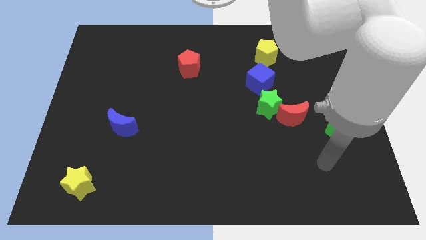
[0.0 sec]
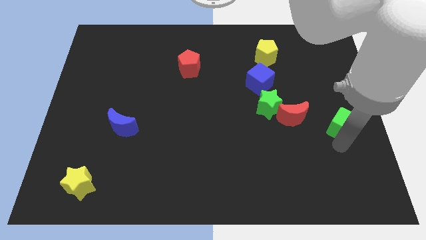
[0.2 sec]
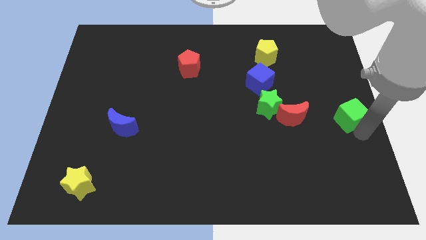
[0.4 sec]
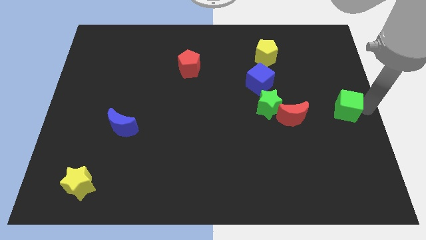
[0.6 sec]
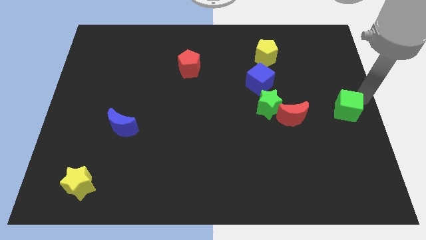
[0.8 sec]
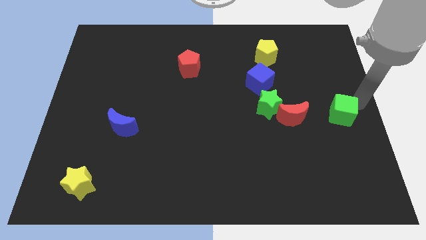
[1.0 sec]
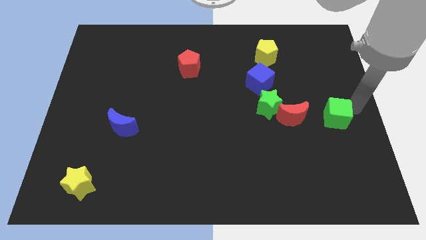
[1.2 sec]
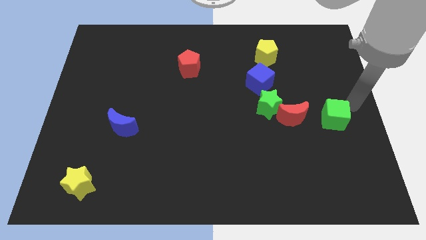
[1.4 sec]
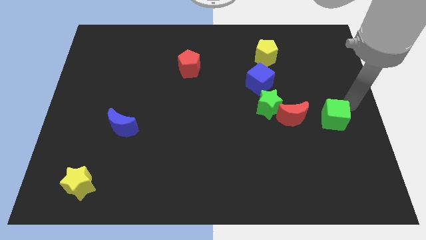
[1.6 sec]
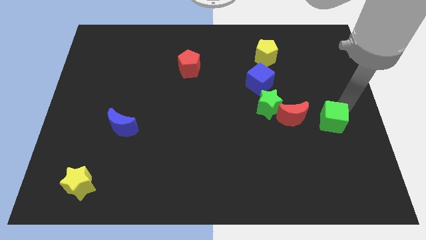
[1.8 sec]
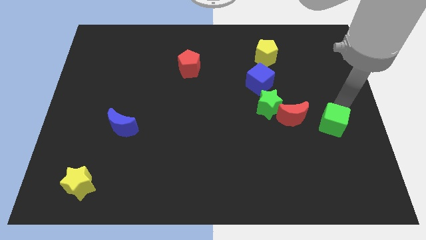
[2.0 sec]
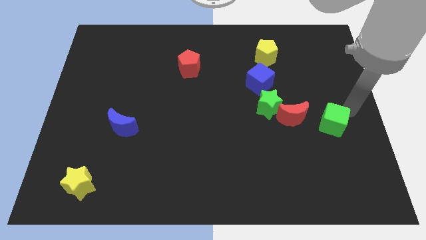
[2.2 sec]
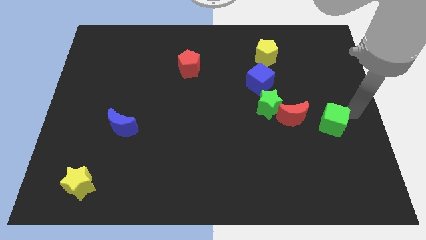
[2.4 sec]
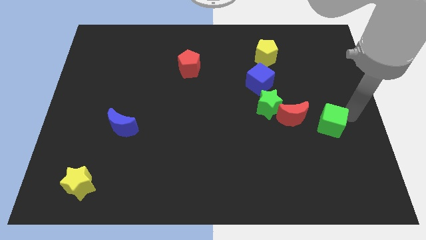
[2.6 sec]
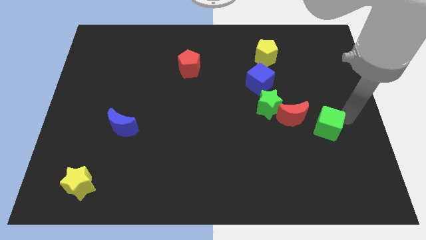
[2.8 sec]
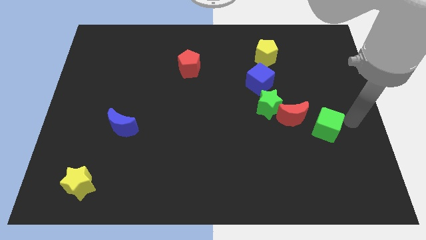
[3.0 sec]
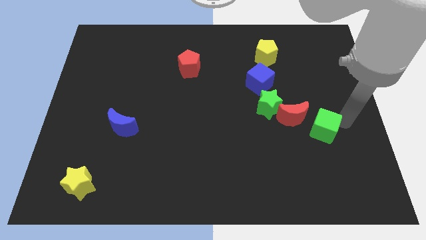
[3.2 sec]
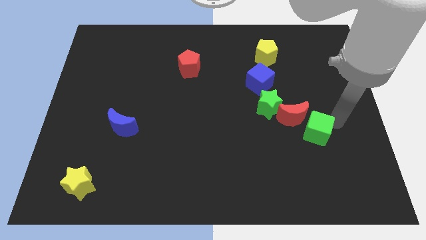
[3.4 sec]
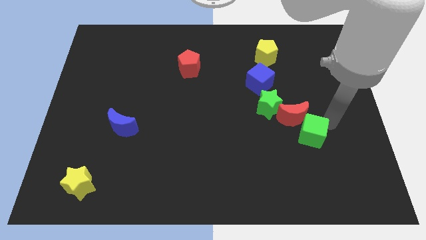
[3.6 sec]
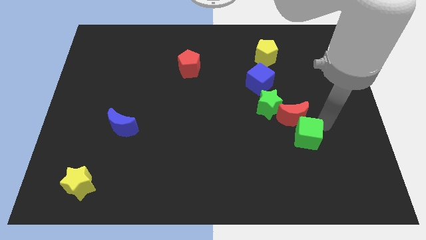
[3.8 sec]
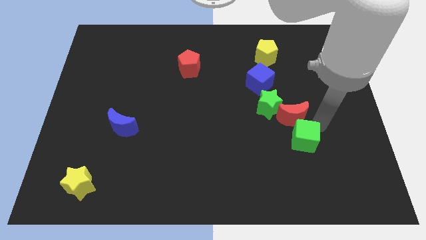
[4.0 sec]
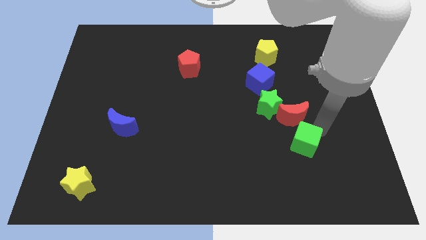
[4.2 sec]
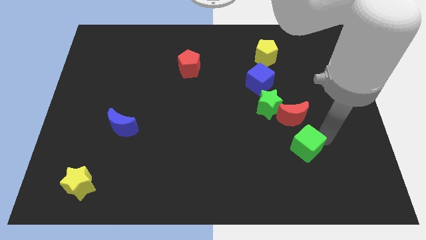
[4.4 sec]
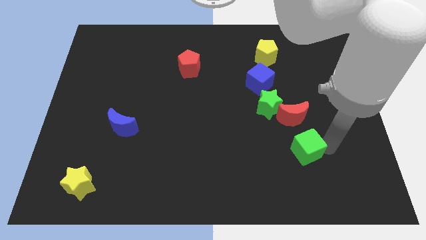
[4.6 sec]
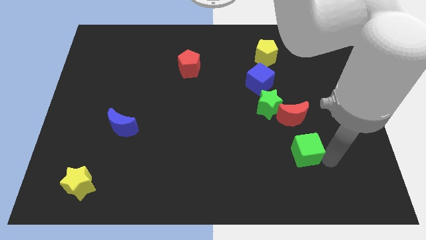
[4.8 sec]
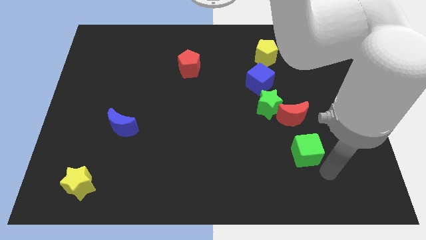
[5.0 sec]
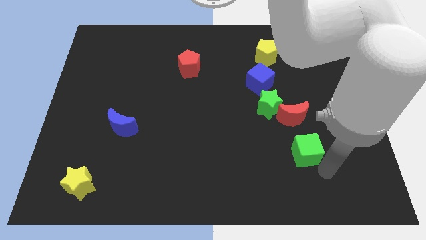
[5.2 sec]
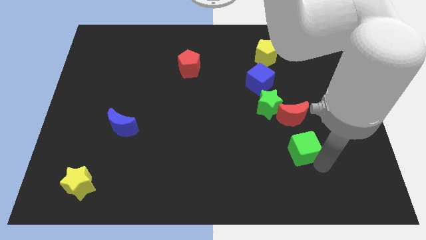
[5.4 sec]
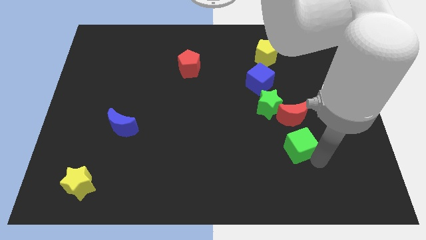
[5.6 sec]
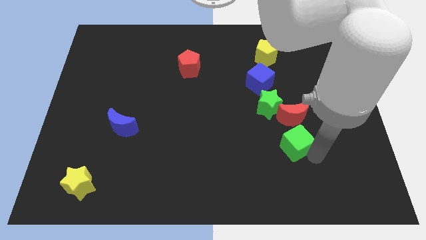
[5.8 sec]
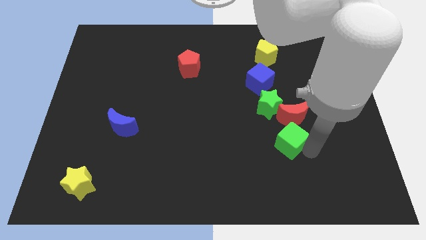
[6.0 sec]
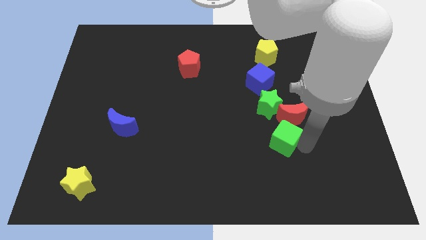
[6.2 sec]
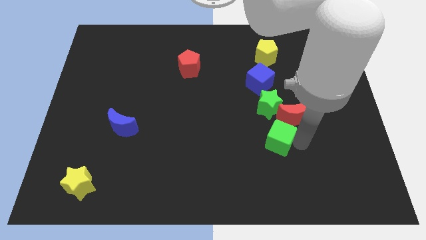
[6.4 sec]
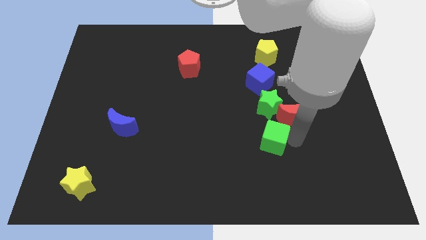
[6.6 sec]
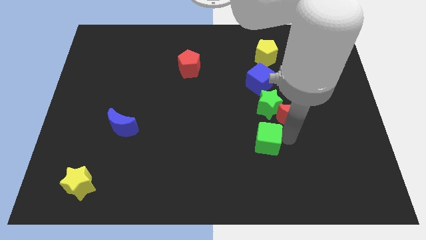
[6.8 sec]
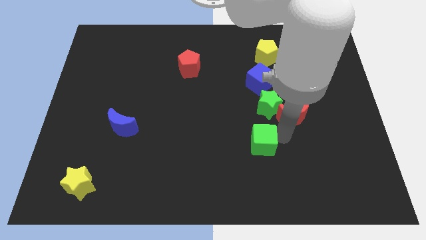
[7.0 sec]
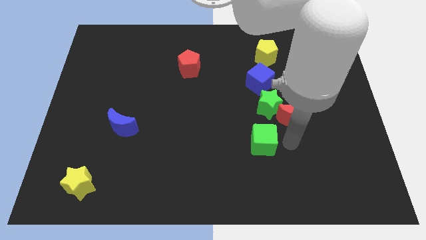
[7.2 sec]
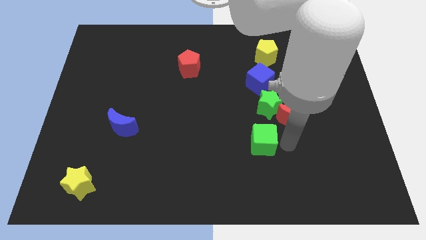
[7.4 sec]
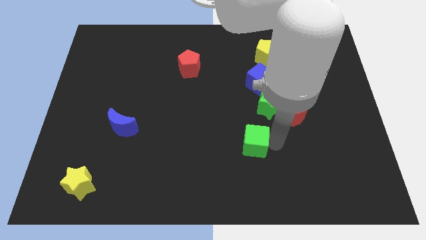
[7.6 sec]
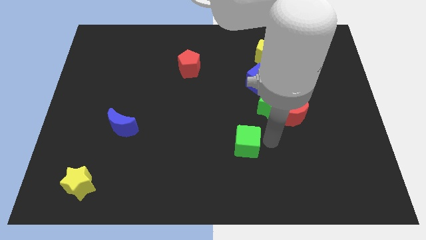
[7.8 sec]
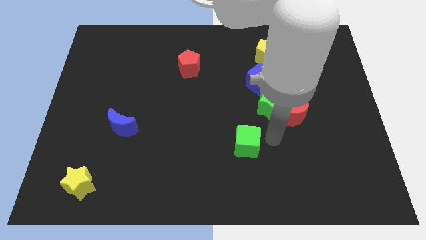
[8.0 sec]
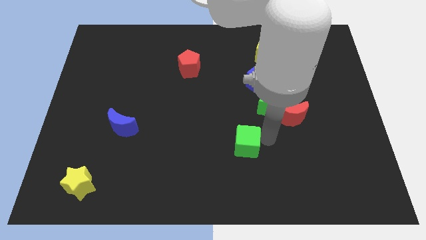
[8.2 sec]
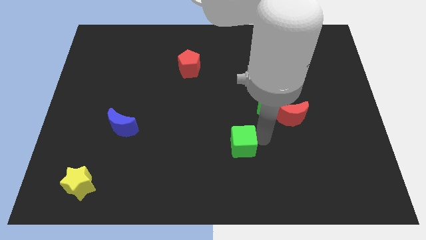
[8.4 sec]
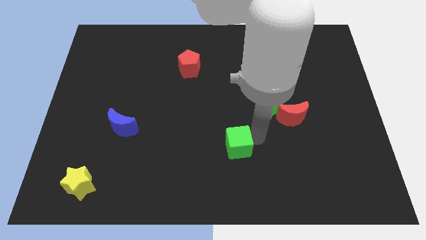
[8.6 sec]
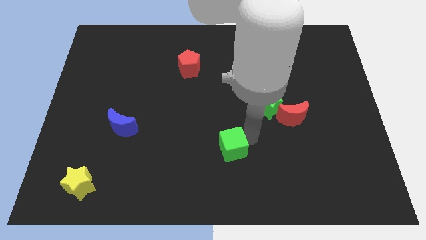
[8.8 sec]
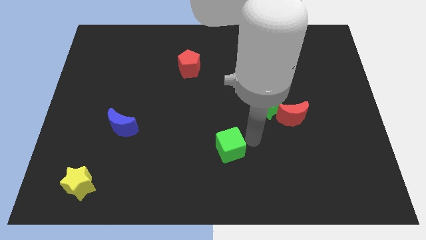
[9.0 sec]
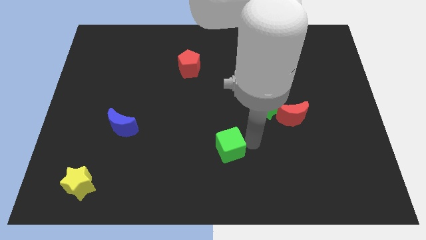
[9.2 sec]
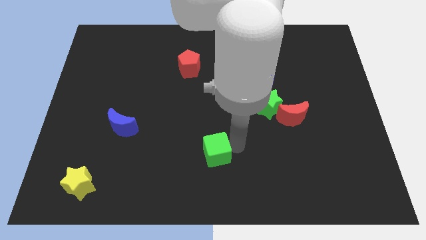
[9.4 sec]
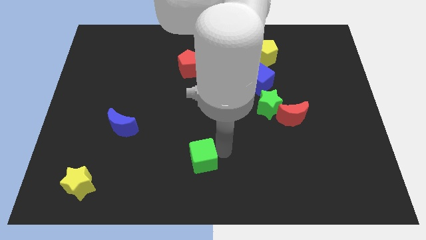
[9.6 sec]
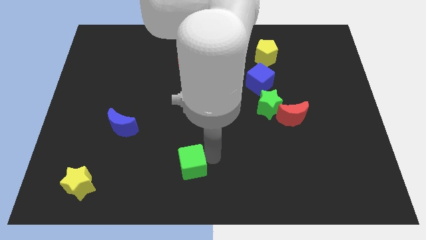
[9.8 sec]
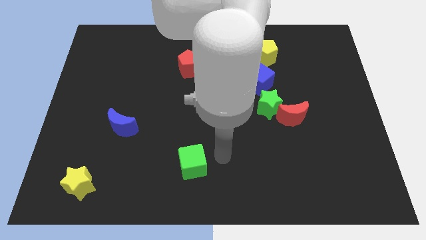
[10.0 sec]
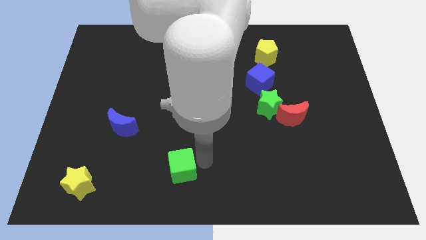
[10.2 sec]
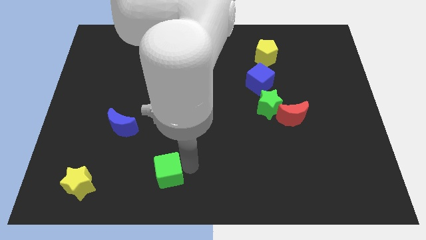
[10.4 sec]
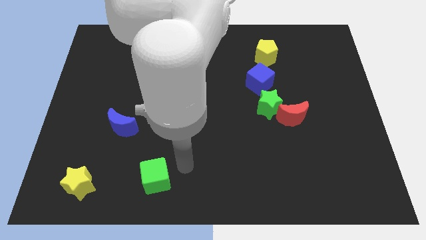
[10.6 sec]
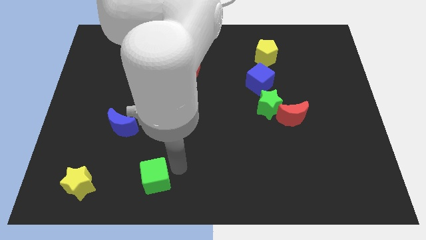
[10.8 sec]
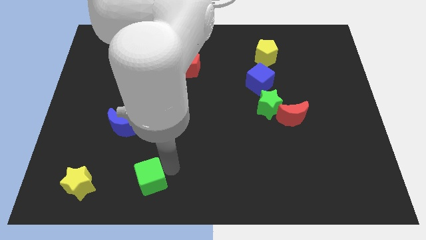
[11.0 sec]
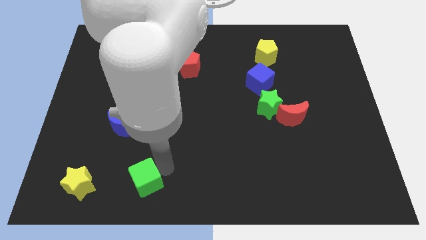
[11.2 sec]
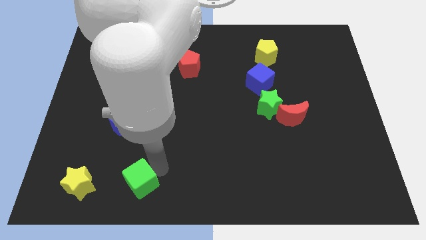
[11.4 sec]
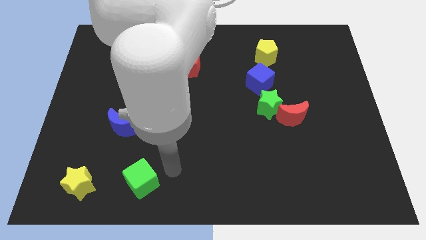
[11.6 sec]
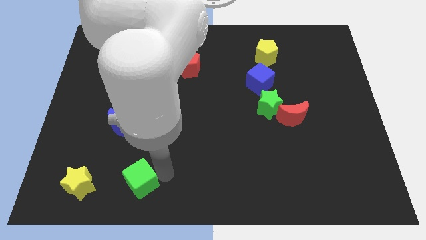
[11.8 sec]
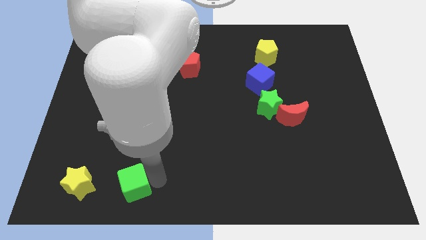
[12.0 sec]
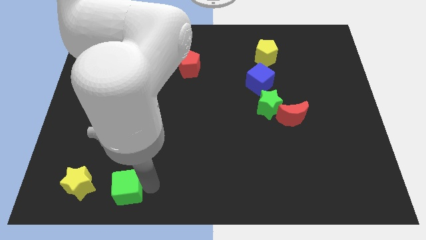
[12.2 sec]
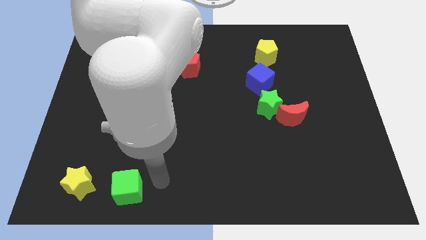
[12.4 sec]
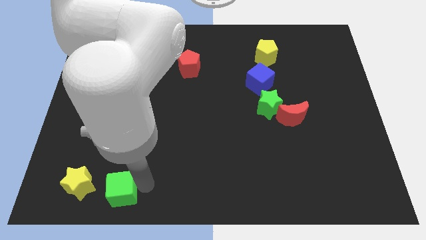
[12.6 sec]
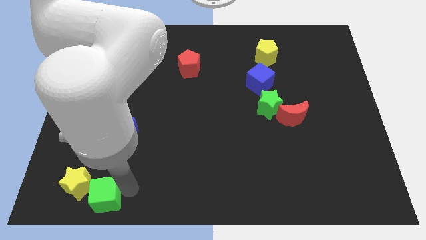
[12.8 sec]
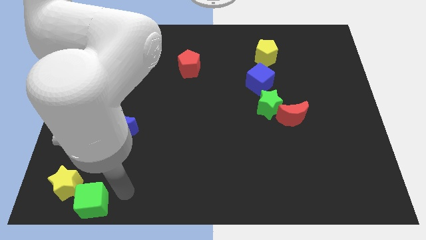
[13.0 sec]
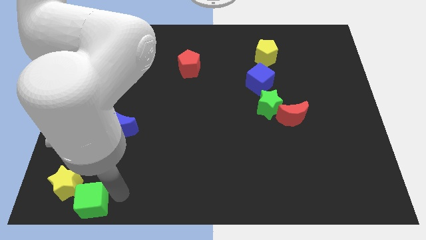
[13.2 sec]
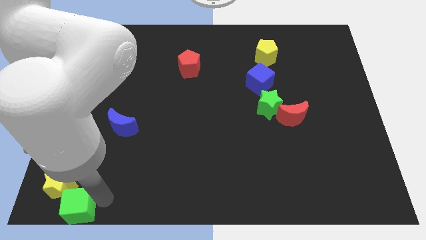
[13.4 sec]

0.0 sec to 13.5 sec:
put the green cube to the bottom left

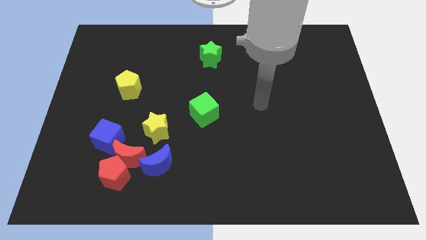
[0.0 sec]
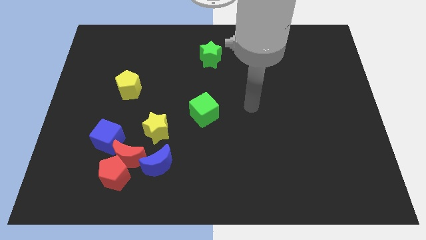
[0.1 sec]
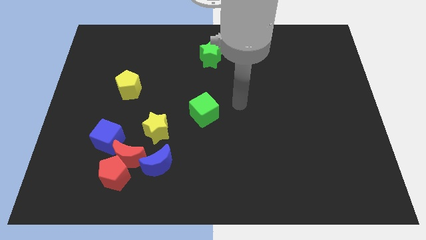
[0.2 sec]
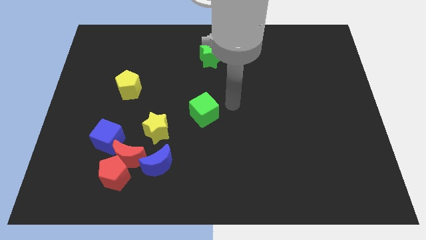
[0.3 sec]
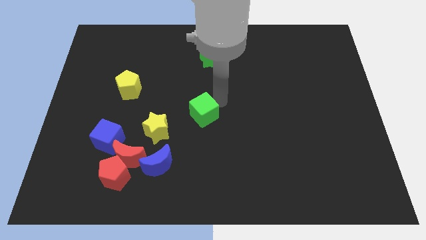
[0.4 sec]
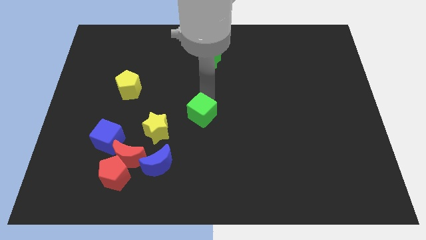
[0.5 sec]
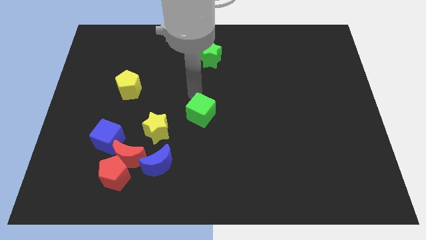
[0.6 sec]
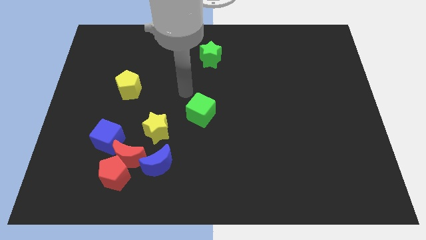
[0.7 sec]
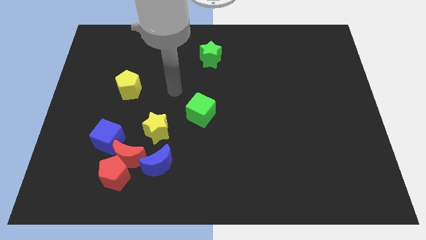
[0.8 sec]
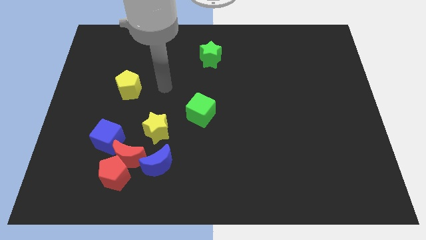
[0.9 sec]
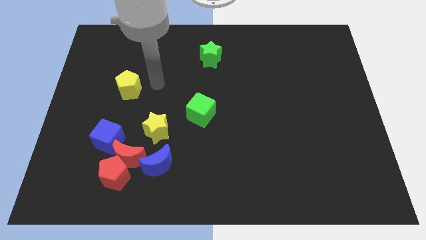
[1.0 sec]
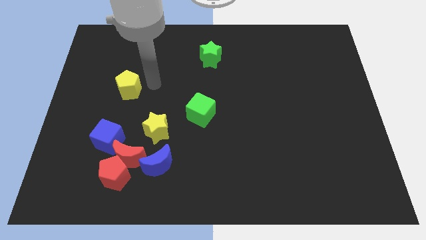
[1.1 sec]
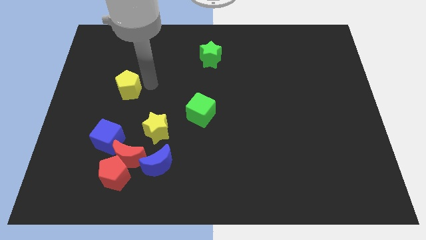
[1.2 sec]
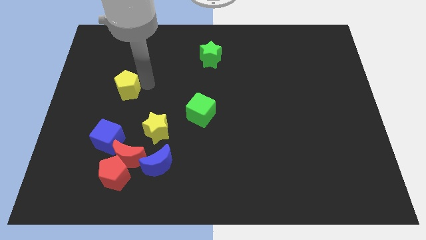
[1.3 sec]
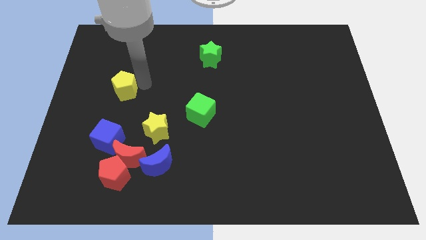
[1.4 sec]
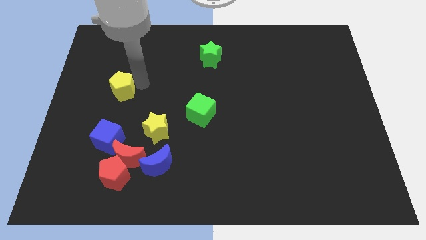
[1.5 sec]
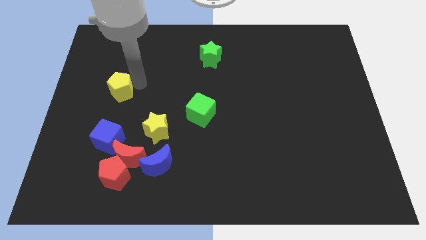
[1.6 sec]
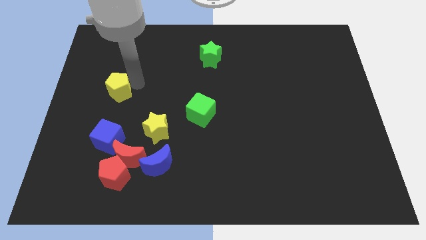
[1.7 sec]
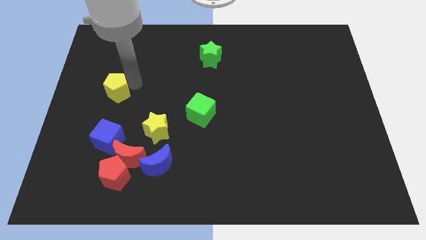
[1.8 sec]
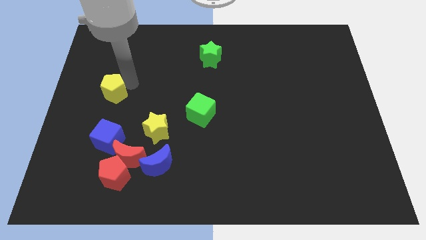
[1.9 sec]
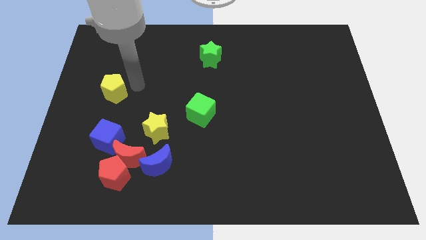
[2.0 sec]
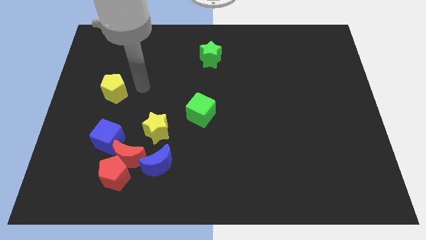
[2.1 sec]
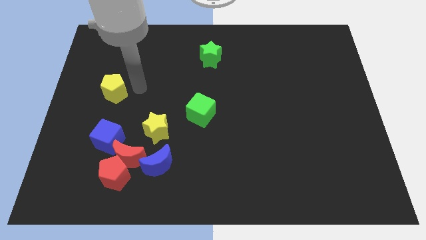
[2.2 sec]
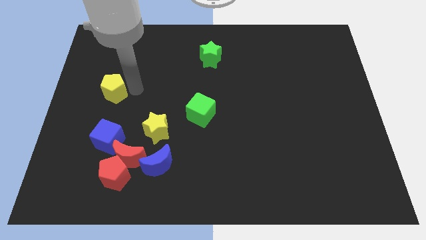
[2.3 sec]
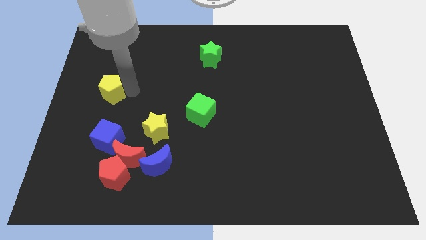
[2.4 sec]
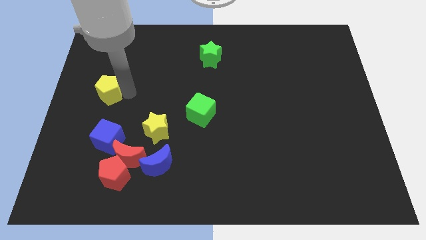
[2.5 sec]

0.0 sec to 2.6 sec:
move the yellow pentagon to the center left
